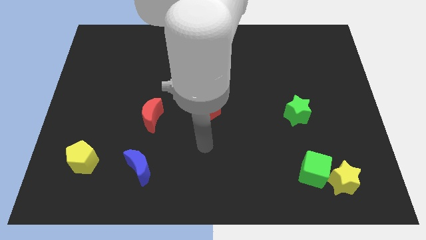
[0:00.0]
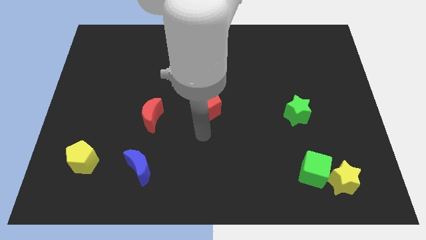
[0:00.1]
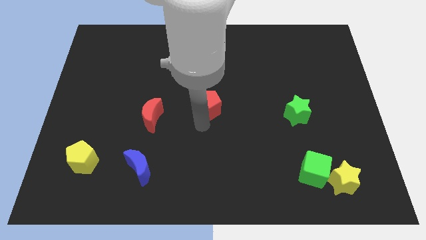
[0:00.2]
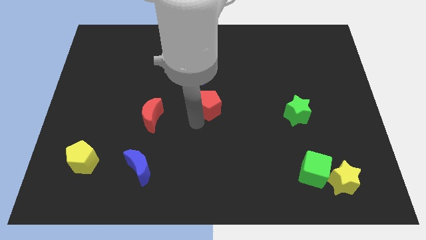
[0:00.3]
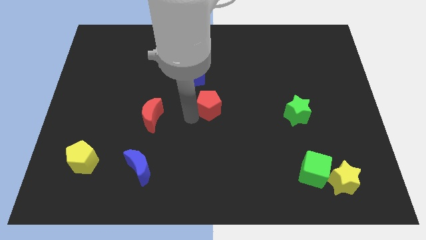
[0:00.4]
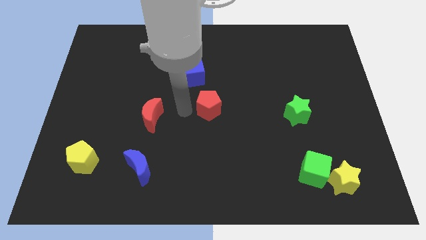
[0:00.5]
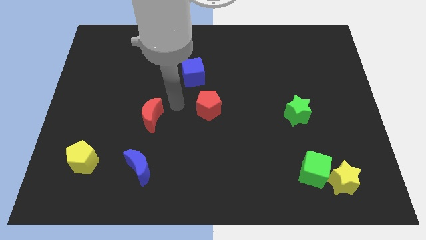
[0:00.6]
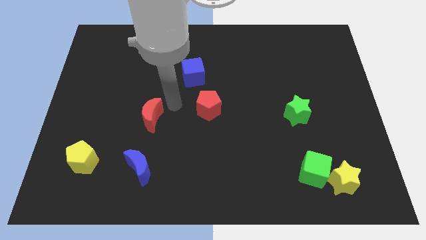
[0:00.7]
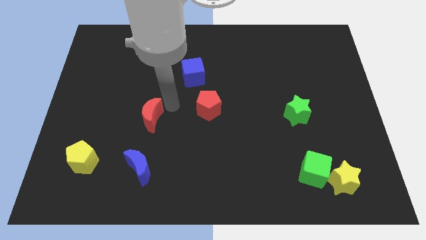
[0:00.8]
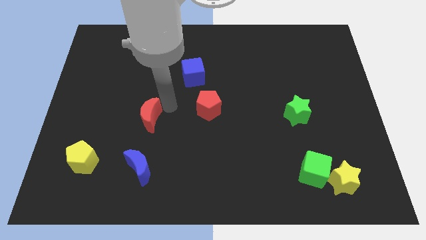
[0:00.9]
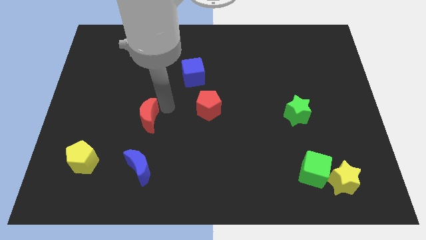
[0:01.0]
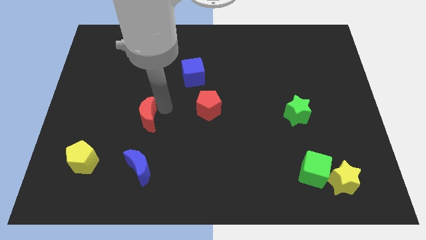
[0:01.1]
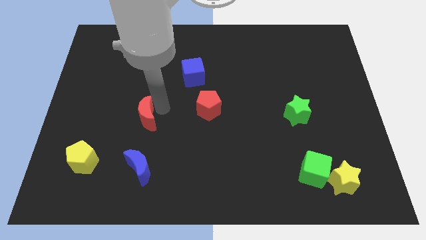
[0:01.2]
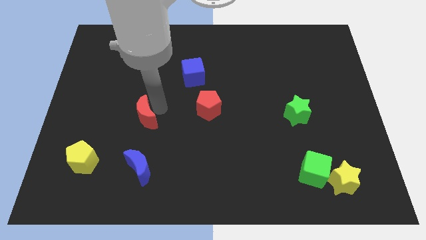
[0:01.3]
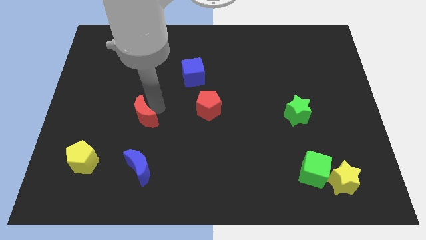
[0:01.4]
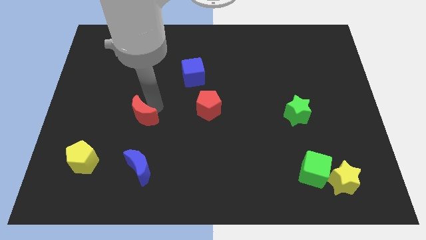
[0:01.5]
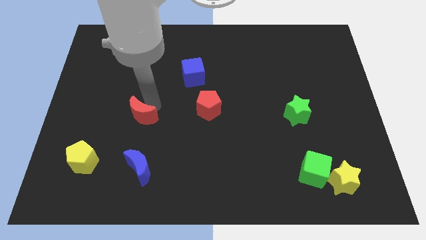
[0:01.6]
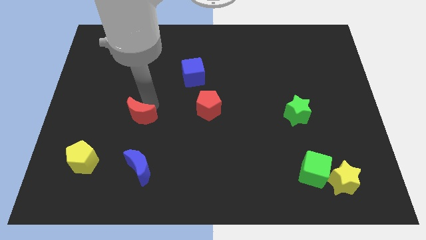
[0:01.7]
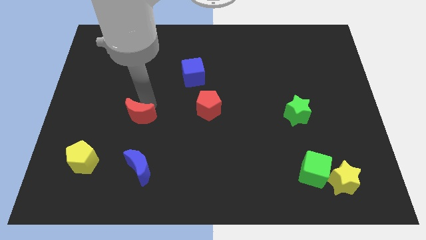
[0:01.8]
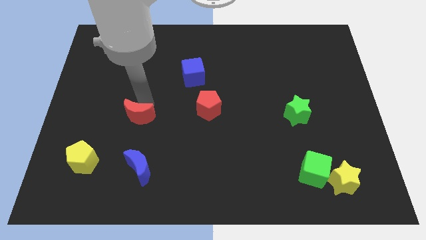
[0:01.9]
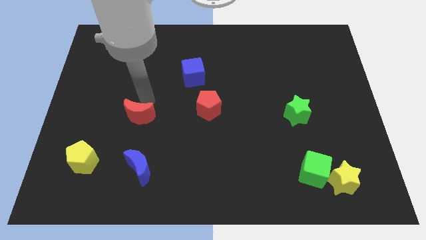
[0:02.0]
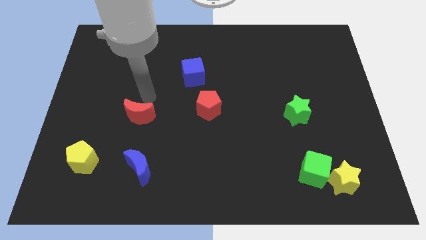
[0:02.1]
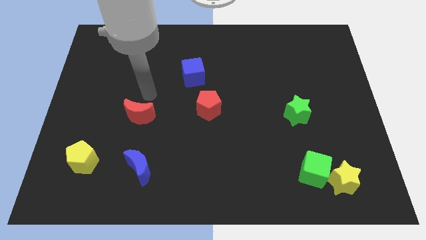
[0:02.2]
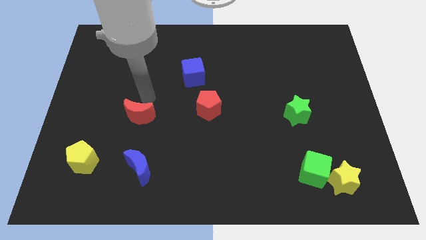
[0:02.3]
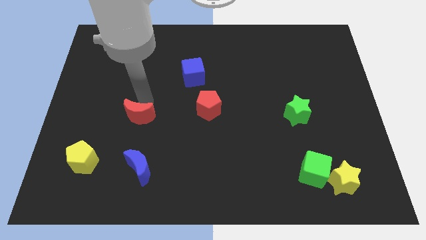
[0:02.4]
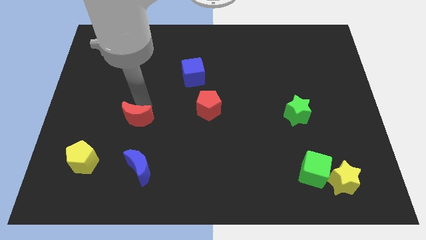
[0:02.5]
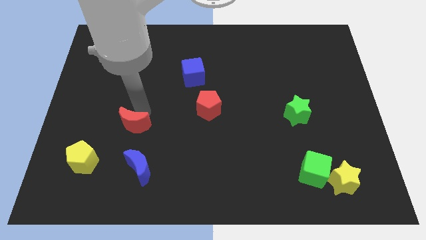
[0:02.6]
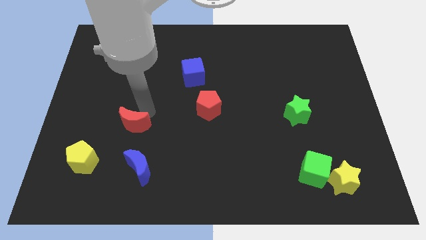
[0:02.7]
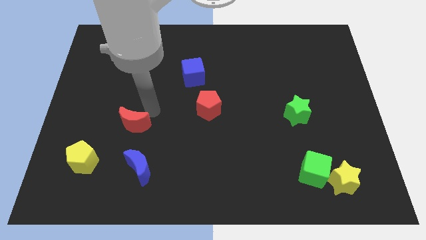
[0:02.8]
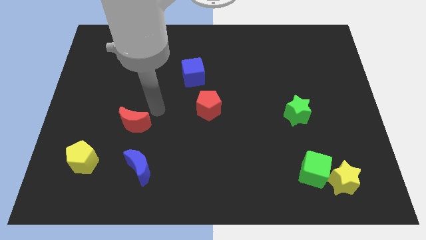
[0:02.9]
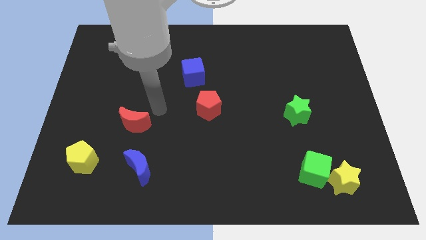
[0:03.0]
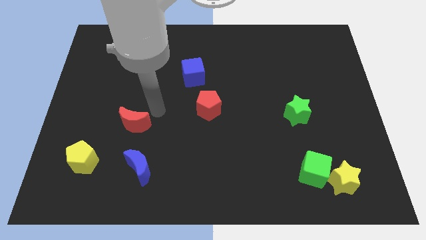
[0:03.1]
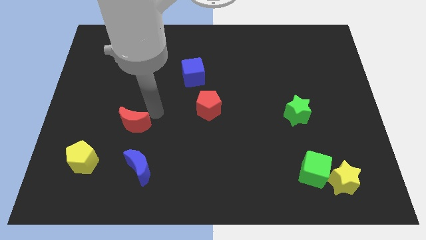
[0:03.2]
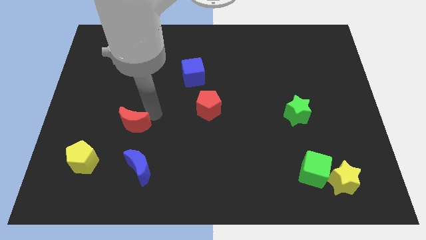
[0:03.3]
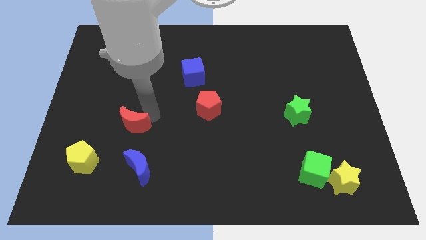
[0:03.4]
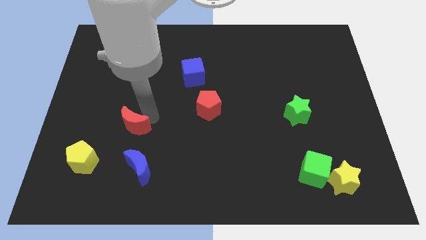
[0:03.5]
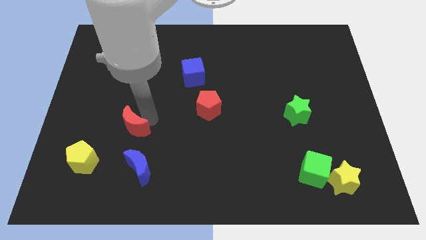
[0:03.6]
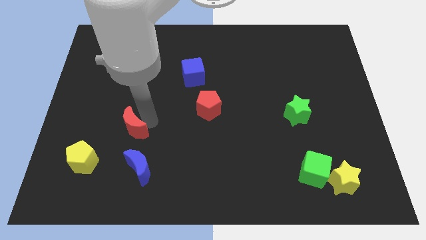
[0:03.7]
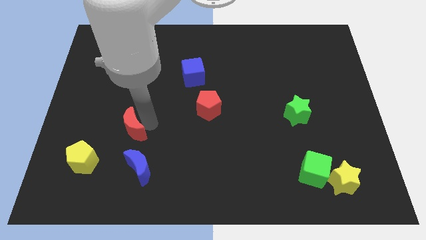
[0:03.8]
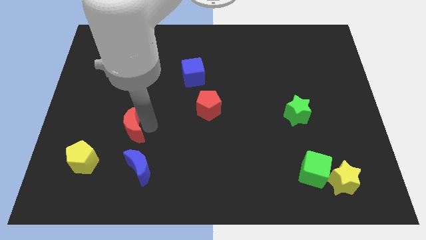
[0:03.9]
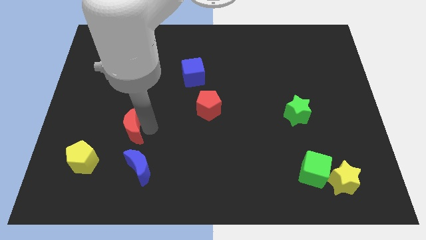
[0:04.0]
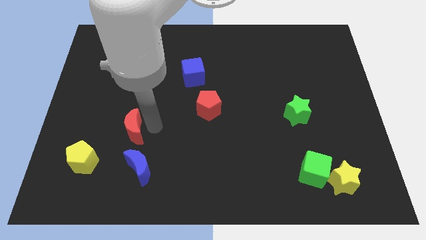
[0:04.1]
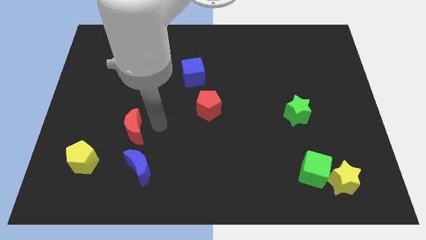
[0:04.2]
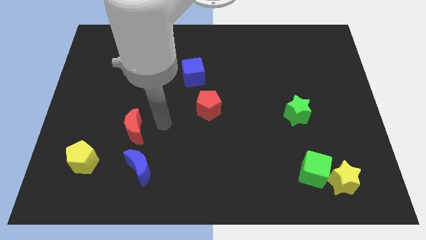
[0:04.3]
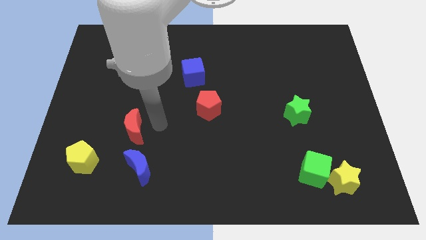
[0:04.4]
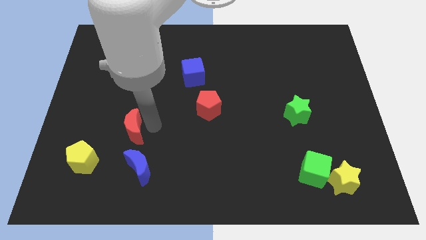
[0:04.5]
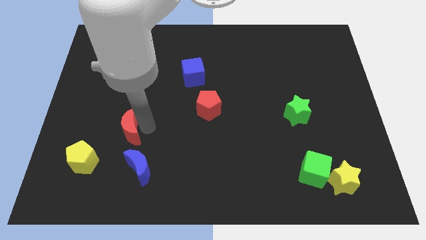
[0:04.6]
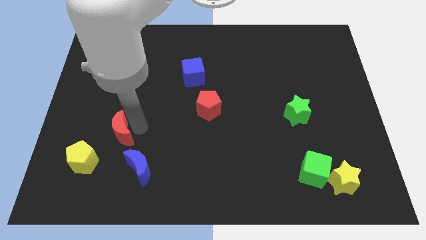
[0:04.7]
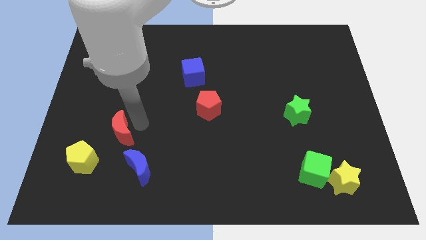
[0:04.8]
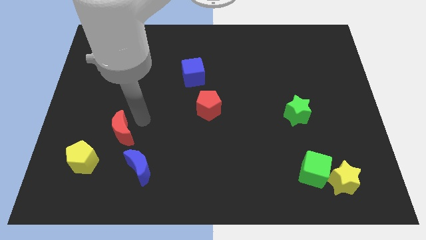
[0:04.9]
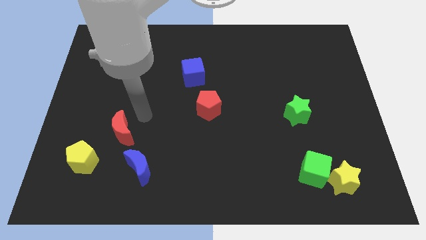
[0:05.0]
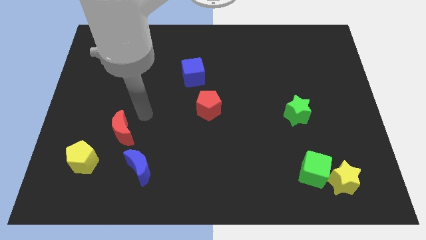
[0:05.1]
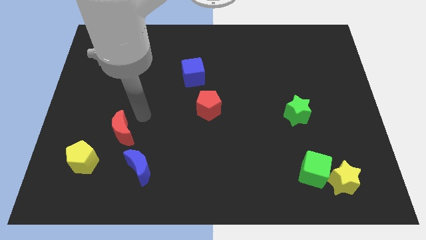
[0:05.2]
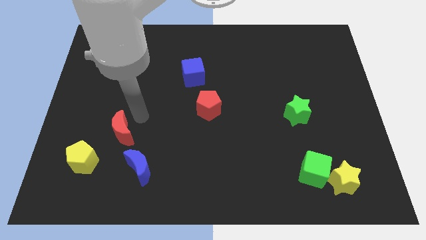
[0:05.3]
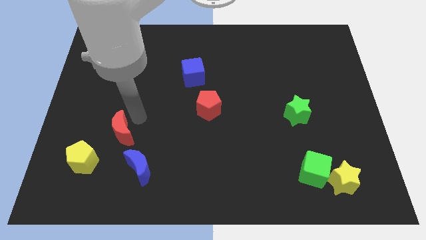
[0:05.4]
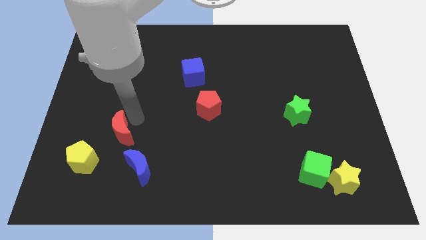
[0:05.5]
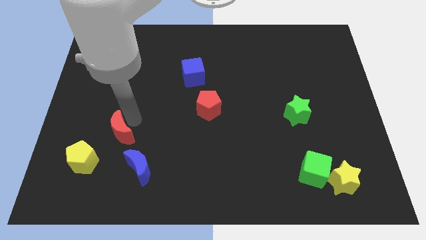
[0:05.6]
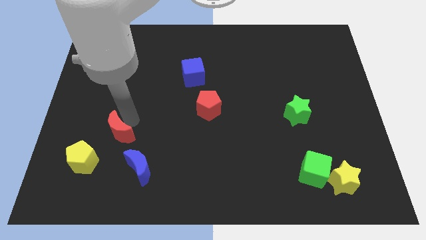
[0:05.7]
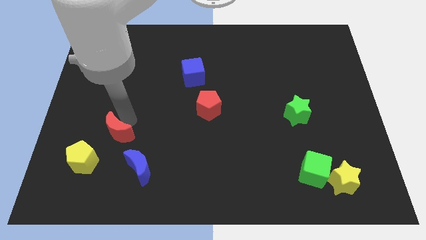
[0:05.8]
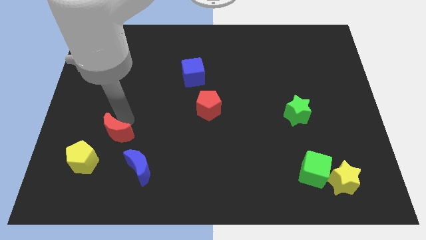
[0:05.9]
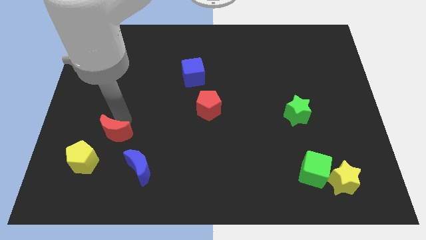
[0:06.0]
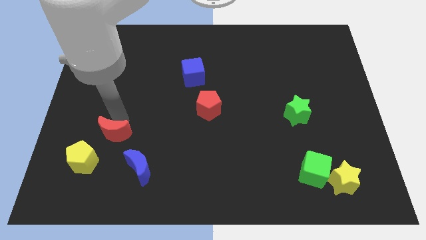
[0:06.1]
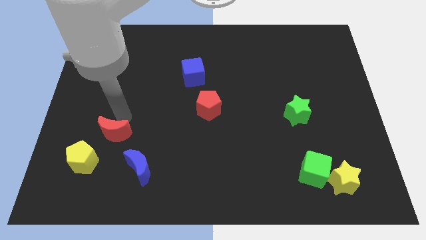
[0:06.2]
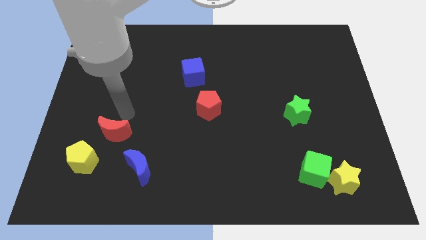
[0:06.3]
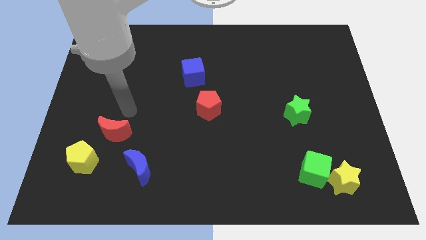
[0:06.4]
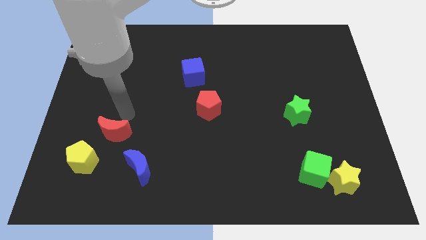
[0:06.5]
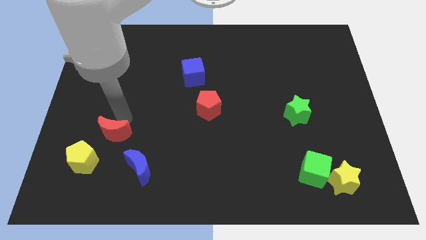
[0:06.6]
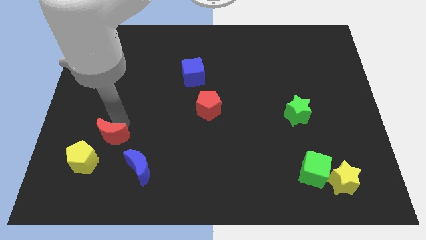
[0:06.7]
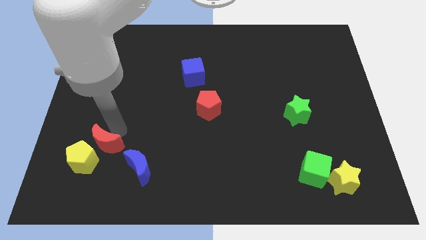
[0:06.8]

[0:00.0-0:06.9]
slide the red moon close to the yellow pentagon
